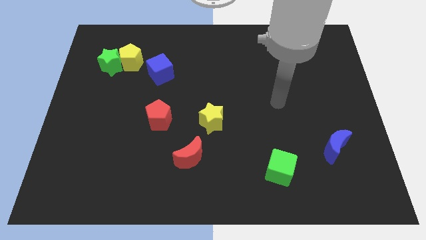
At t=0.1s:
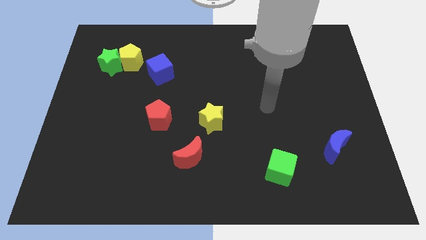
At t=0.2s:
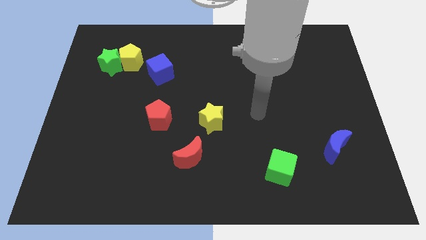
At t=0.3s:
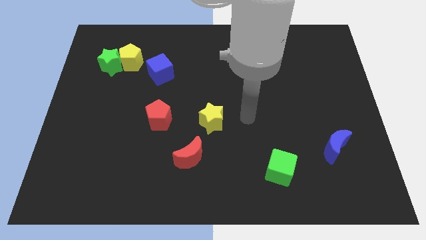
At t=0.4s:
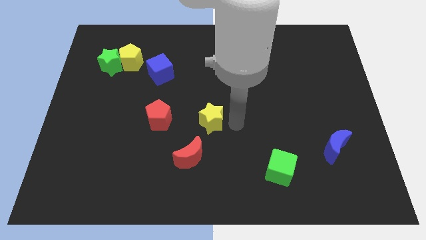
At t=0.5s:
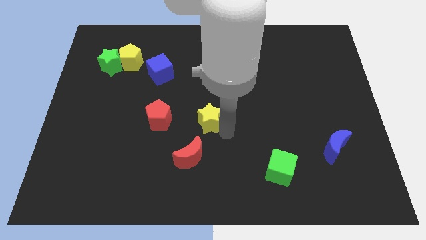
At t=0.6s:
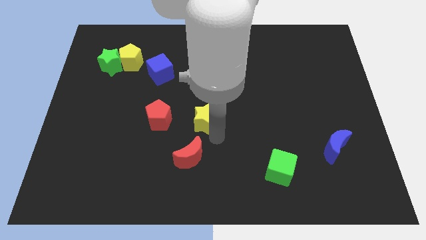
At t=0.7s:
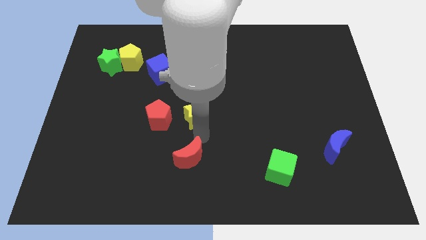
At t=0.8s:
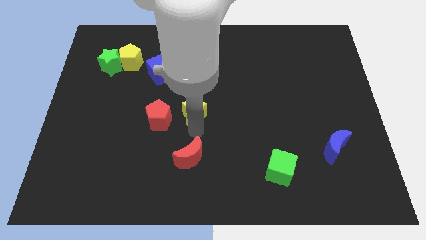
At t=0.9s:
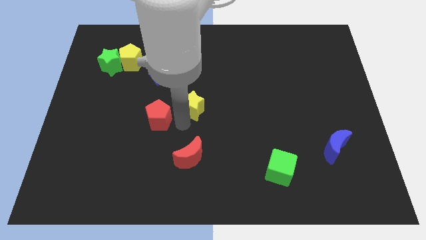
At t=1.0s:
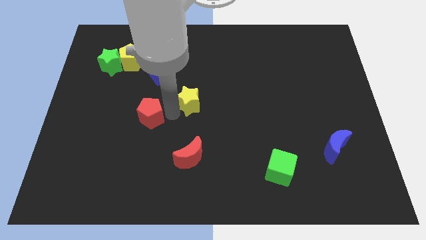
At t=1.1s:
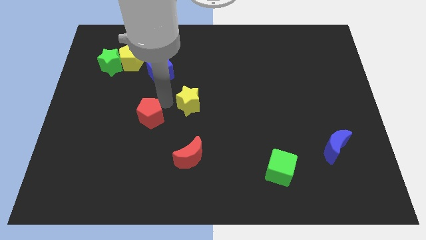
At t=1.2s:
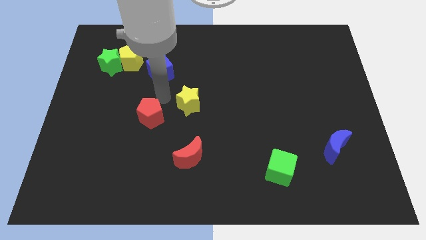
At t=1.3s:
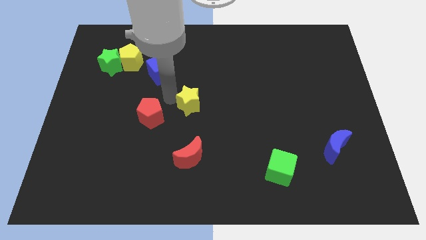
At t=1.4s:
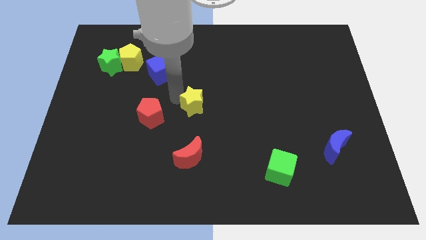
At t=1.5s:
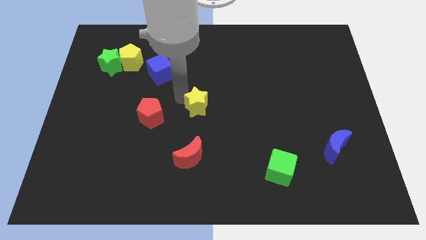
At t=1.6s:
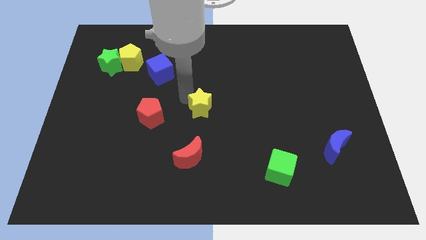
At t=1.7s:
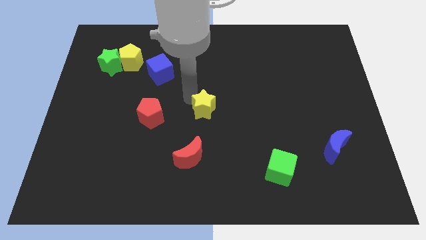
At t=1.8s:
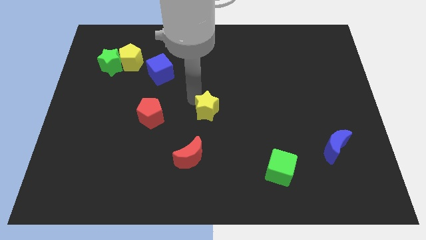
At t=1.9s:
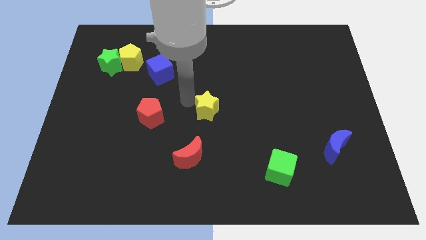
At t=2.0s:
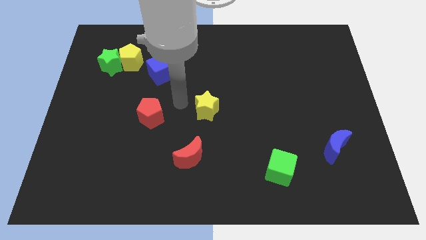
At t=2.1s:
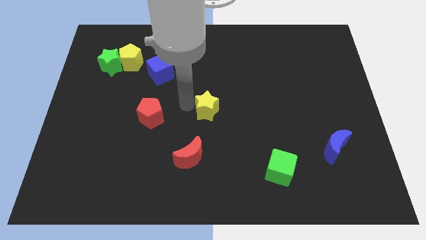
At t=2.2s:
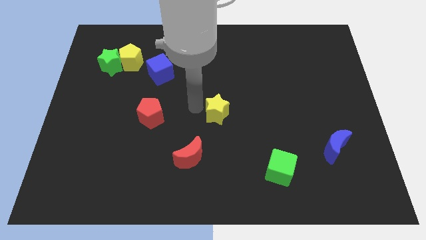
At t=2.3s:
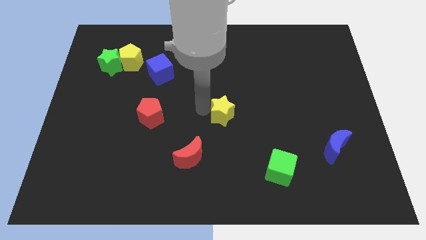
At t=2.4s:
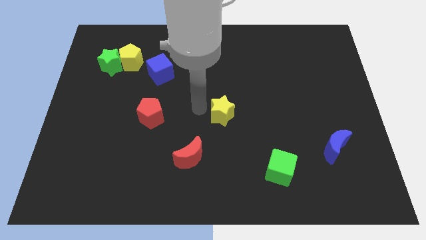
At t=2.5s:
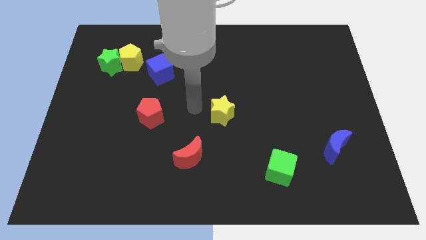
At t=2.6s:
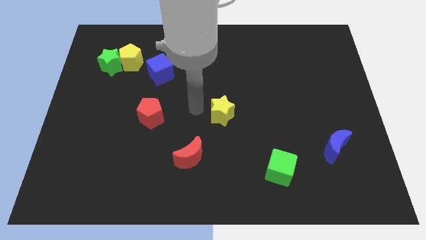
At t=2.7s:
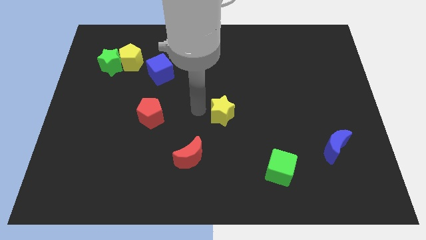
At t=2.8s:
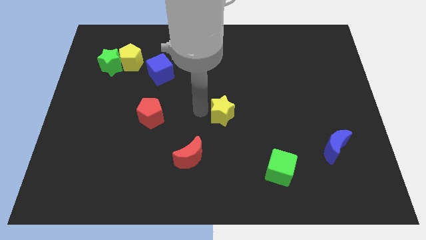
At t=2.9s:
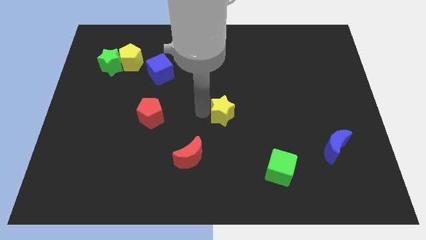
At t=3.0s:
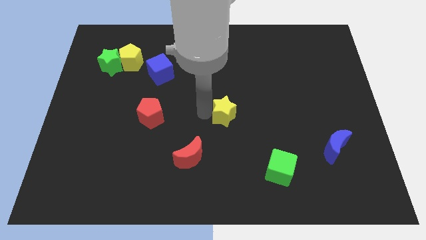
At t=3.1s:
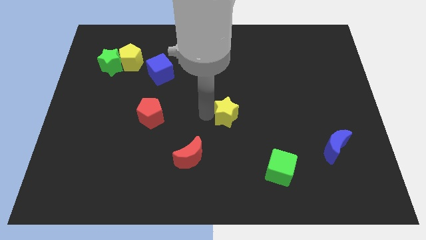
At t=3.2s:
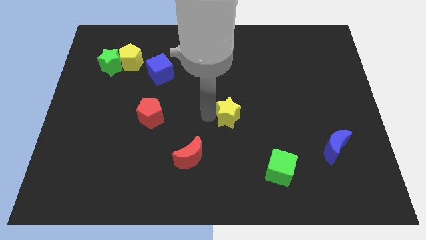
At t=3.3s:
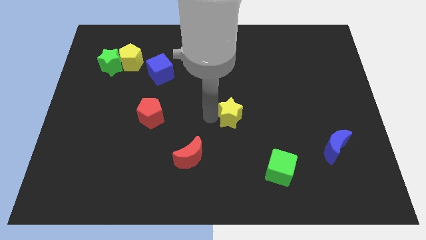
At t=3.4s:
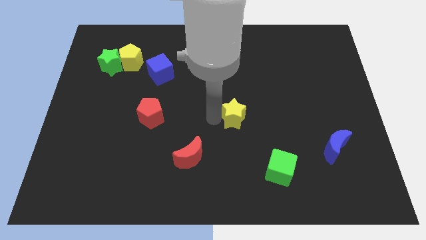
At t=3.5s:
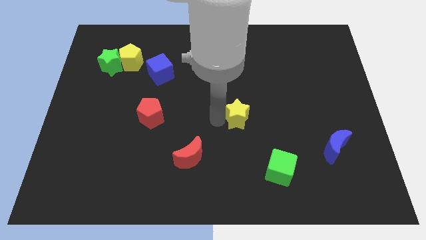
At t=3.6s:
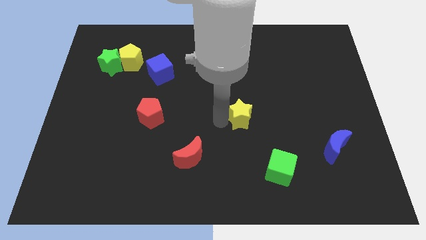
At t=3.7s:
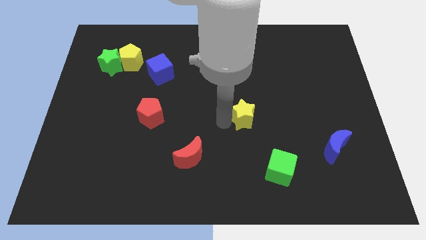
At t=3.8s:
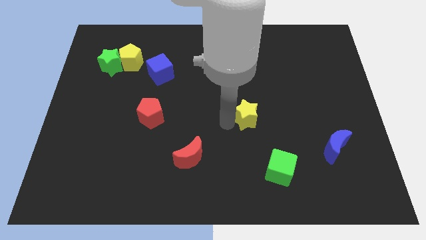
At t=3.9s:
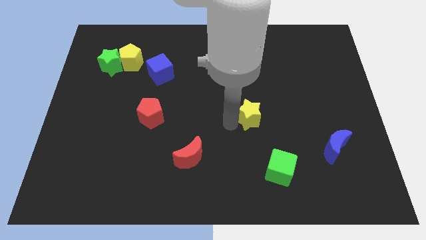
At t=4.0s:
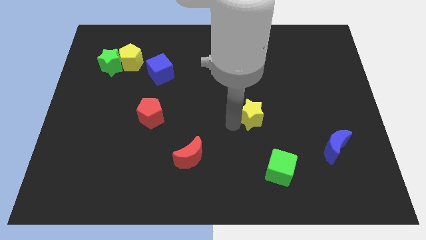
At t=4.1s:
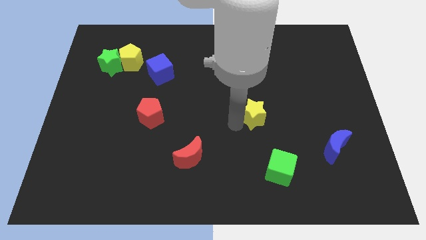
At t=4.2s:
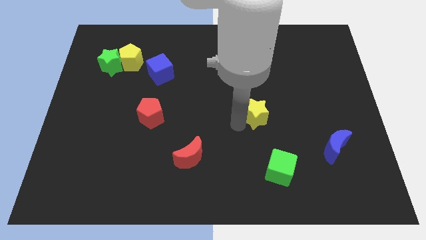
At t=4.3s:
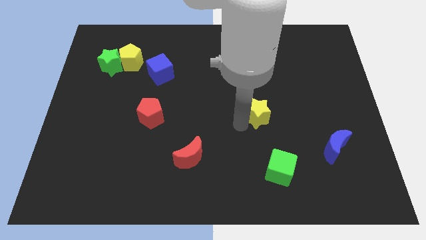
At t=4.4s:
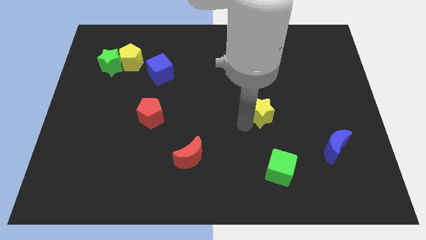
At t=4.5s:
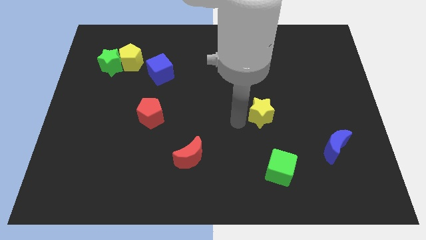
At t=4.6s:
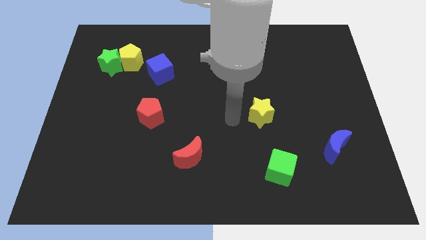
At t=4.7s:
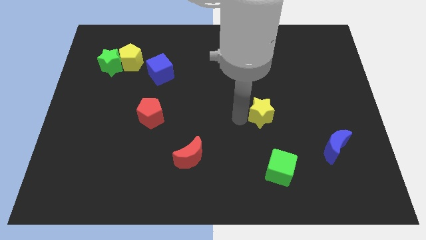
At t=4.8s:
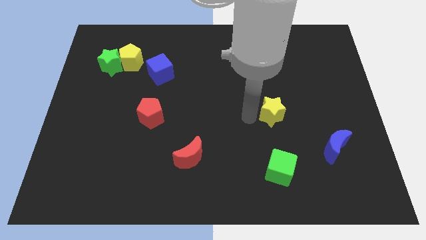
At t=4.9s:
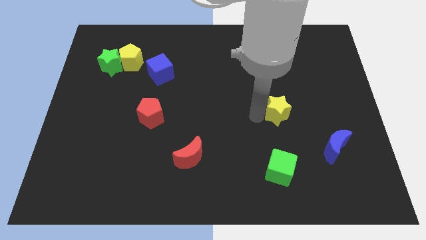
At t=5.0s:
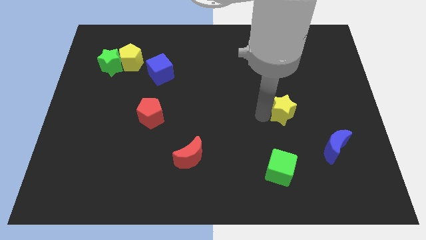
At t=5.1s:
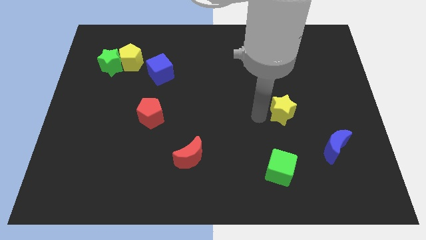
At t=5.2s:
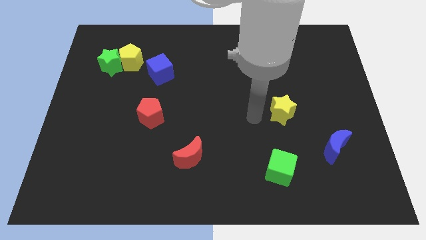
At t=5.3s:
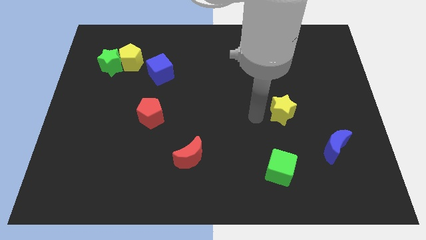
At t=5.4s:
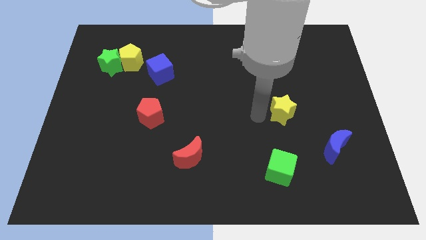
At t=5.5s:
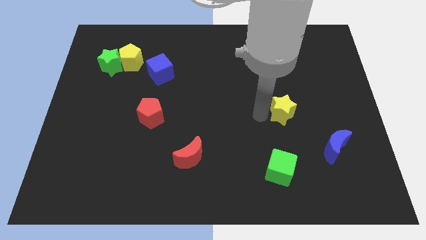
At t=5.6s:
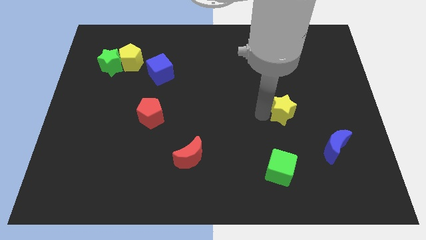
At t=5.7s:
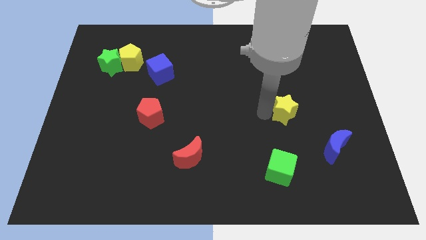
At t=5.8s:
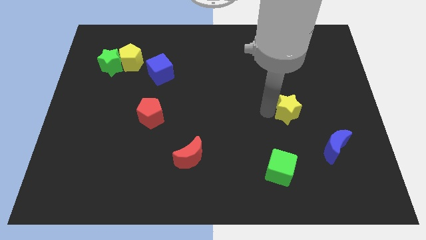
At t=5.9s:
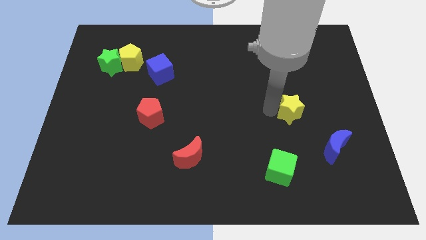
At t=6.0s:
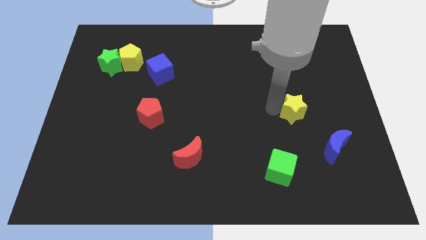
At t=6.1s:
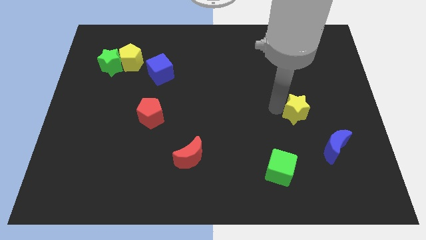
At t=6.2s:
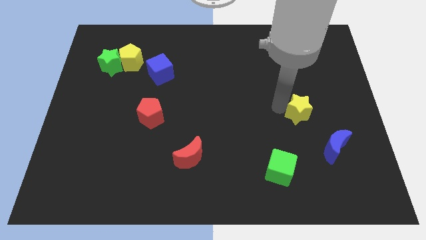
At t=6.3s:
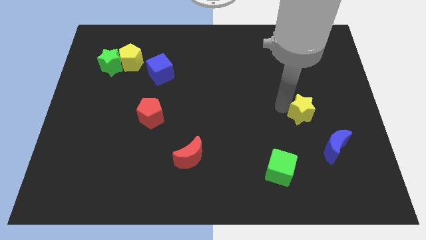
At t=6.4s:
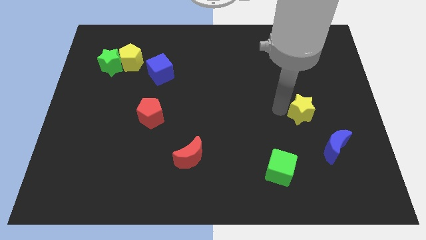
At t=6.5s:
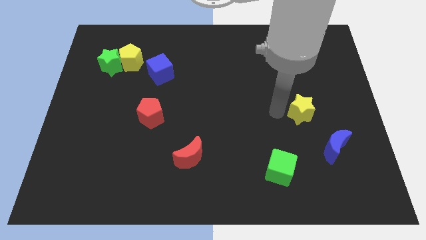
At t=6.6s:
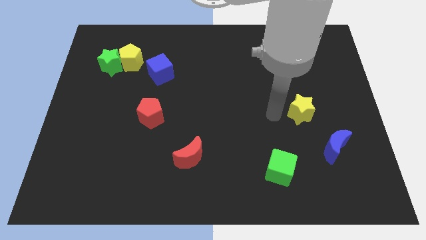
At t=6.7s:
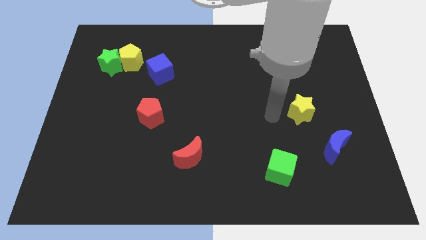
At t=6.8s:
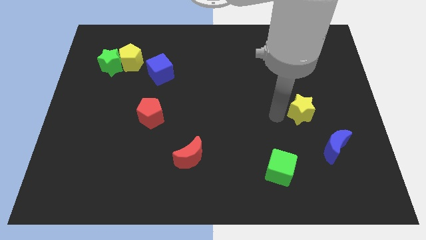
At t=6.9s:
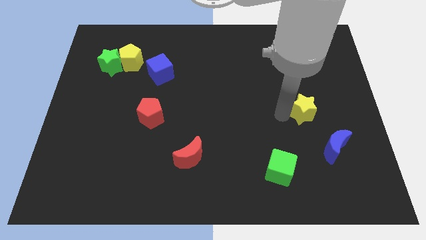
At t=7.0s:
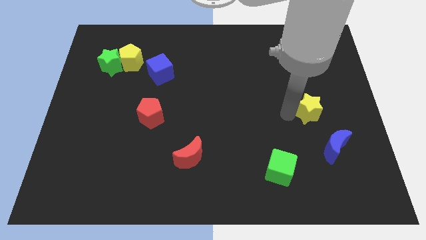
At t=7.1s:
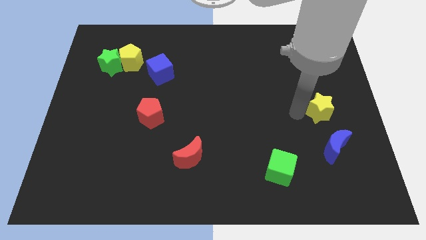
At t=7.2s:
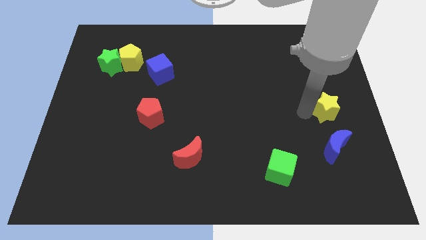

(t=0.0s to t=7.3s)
move the yellow star to the right side
